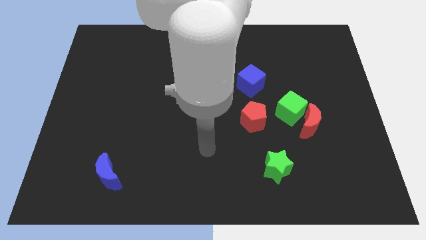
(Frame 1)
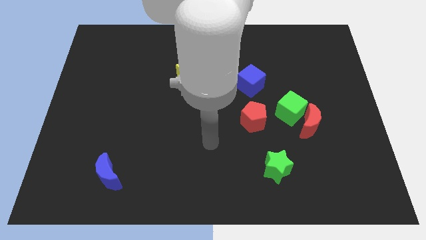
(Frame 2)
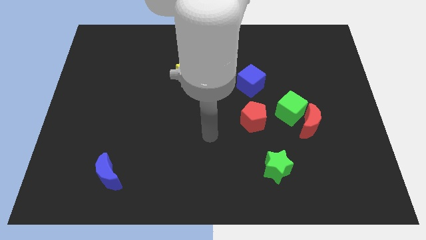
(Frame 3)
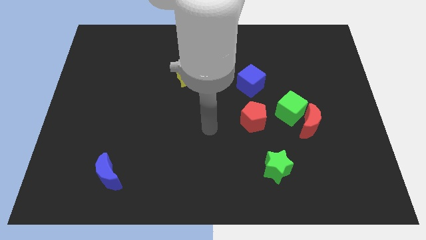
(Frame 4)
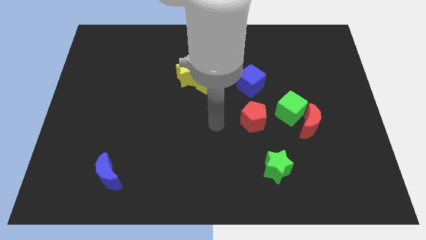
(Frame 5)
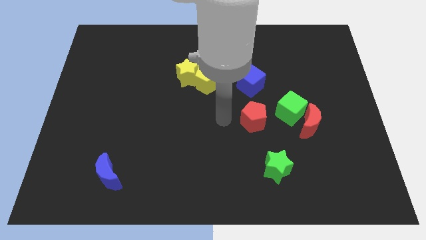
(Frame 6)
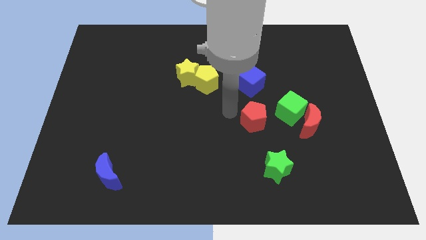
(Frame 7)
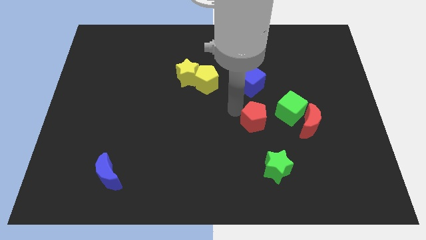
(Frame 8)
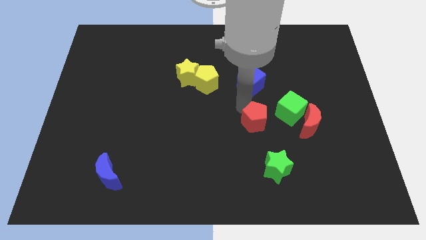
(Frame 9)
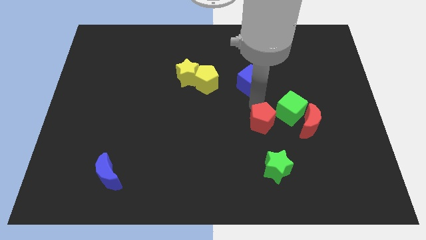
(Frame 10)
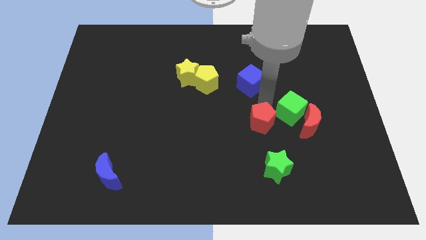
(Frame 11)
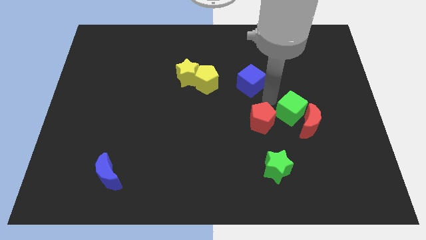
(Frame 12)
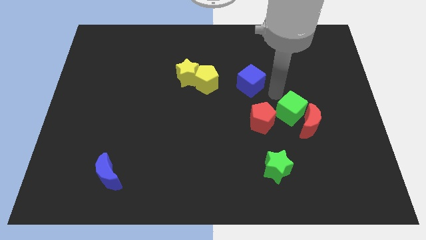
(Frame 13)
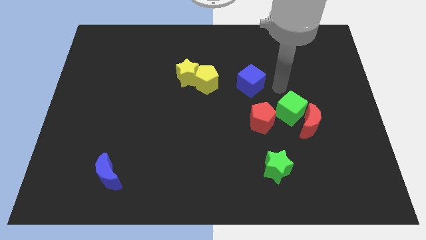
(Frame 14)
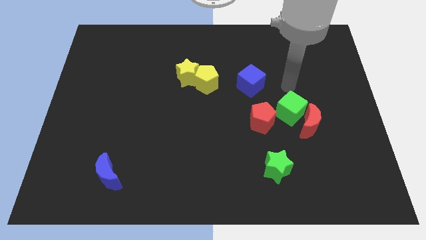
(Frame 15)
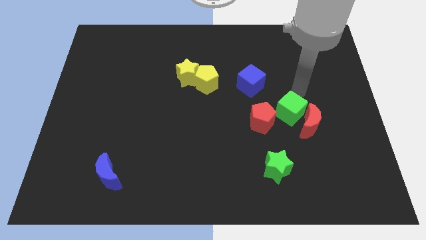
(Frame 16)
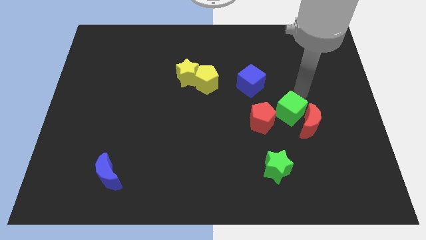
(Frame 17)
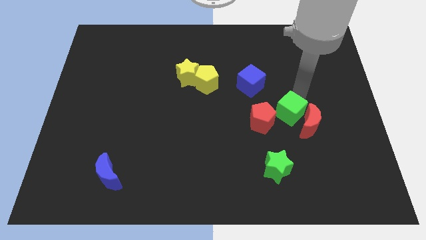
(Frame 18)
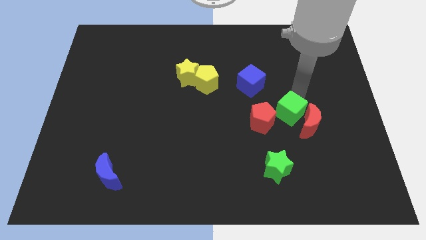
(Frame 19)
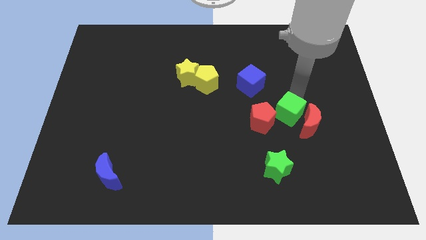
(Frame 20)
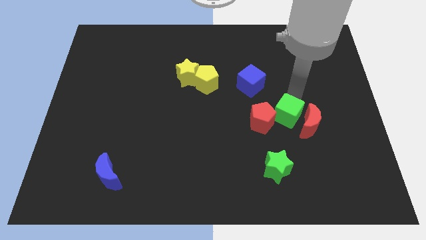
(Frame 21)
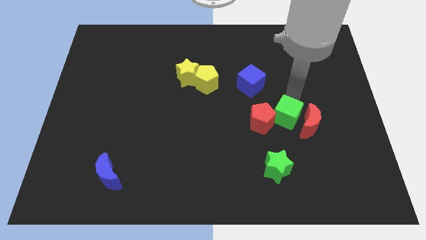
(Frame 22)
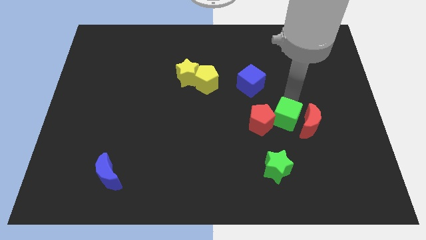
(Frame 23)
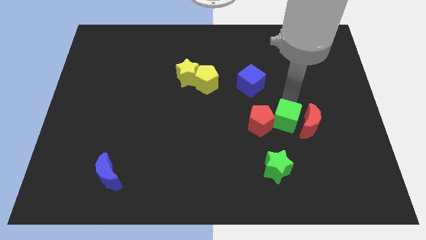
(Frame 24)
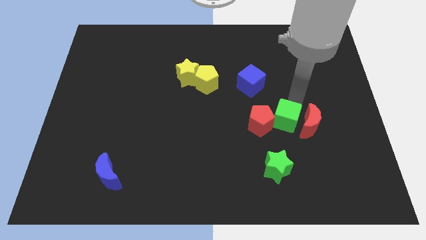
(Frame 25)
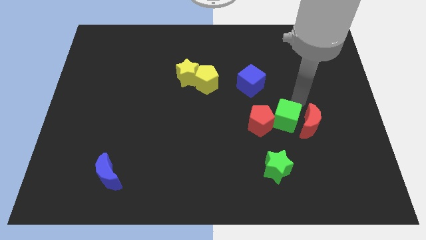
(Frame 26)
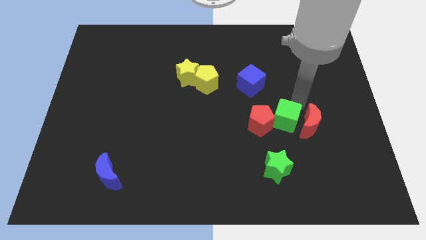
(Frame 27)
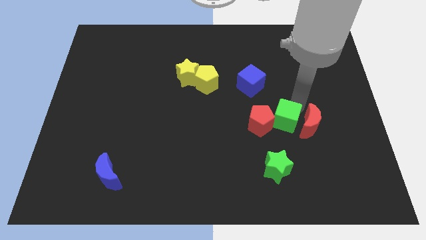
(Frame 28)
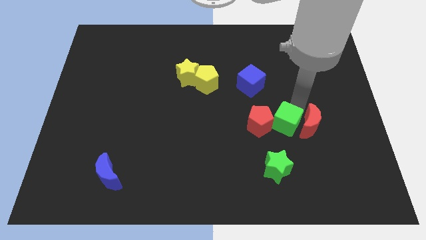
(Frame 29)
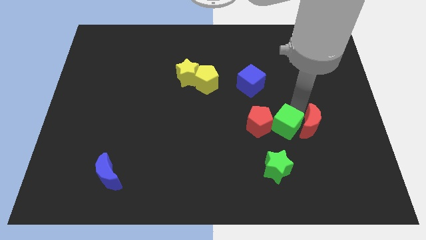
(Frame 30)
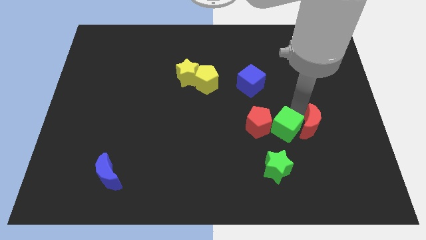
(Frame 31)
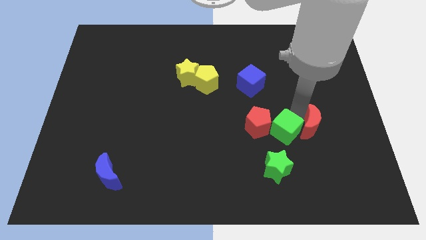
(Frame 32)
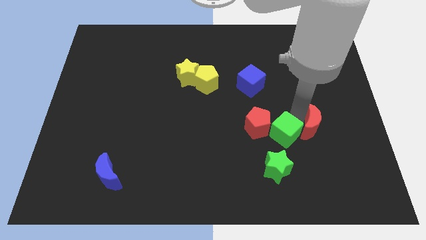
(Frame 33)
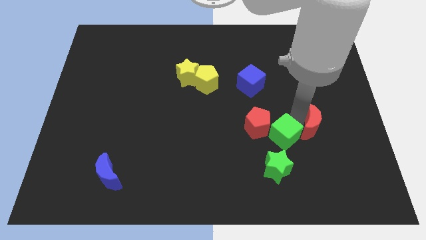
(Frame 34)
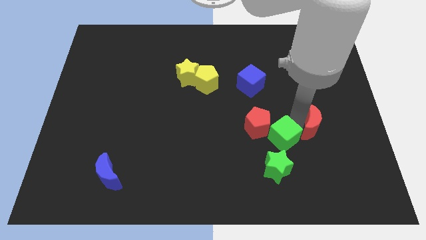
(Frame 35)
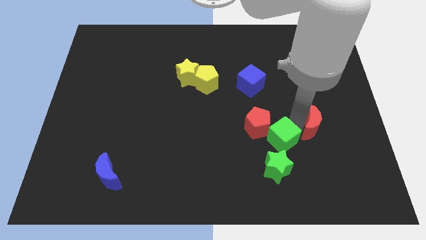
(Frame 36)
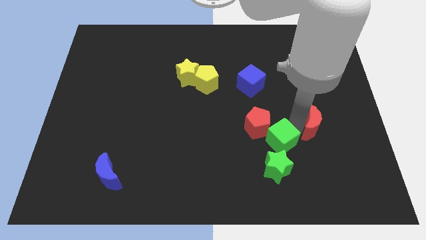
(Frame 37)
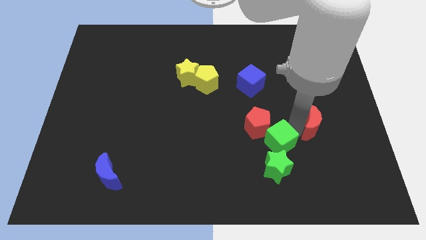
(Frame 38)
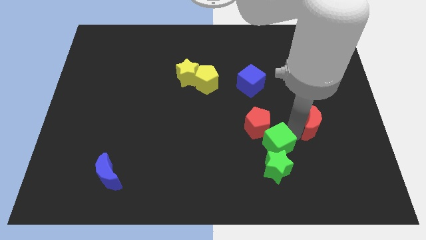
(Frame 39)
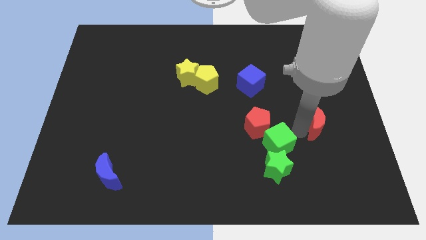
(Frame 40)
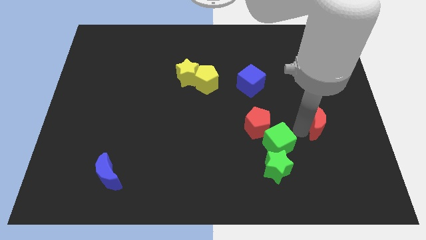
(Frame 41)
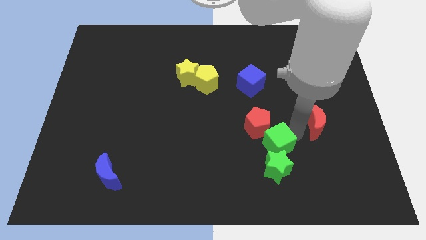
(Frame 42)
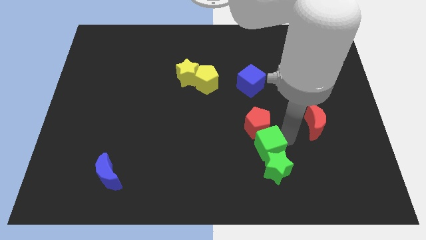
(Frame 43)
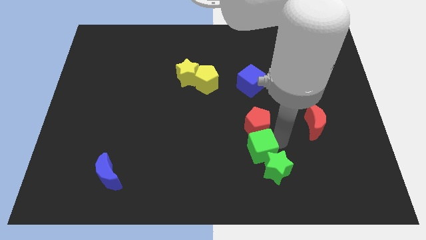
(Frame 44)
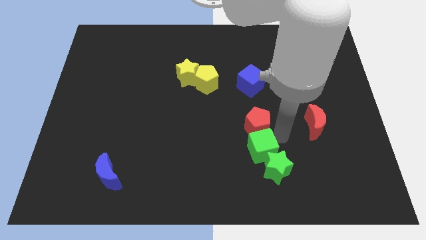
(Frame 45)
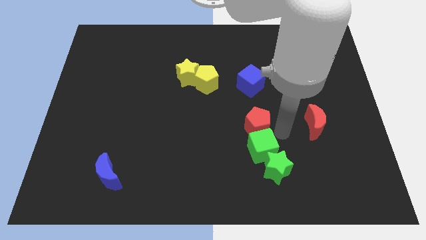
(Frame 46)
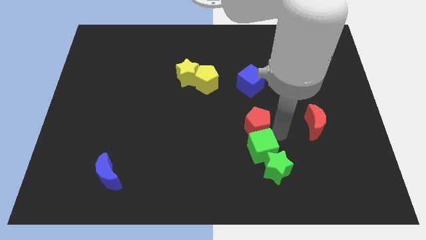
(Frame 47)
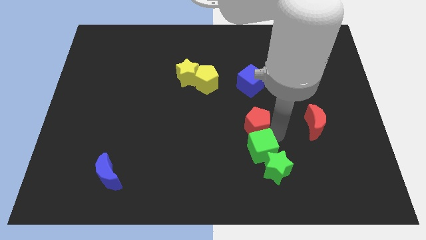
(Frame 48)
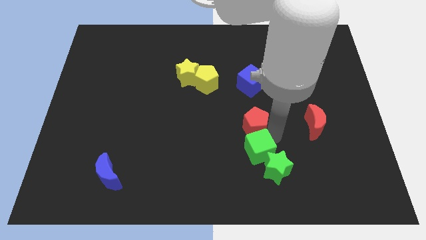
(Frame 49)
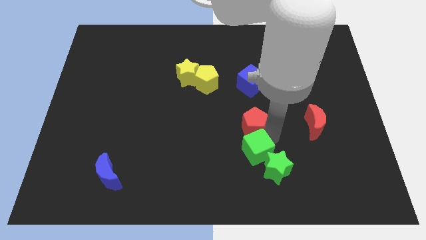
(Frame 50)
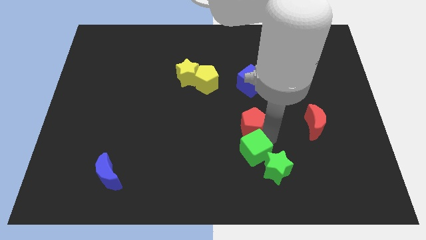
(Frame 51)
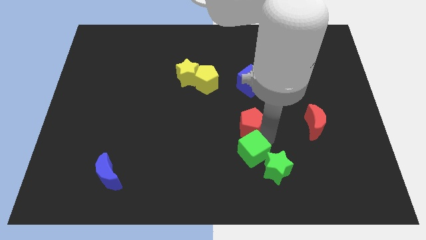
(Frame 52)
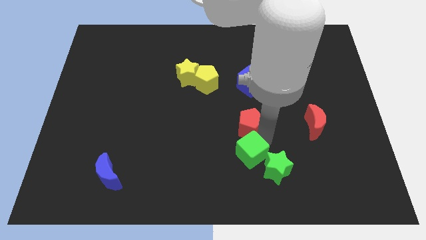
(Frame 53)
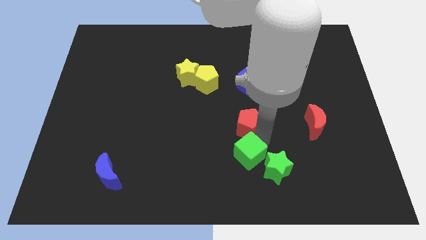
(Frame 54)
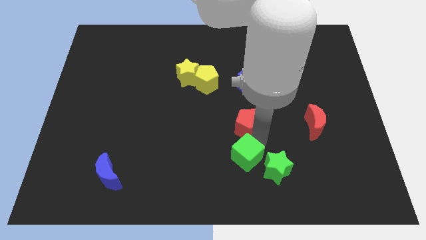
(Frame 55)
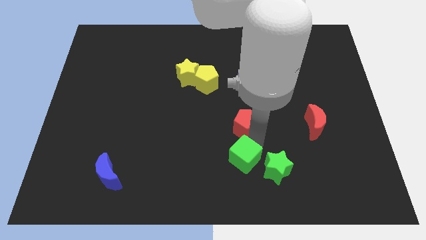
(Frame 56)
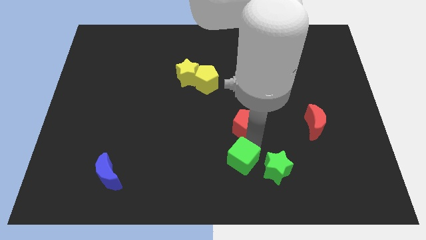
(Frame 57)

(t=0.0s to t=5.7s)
slide the green cube to the bottom side

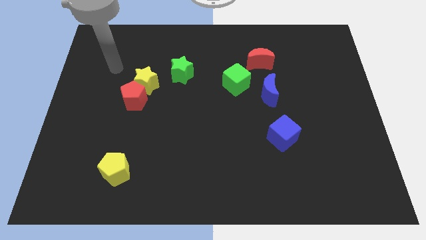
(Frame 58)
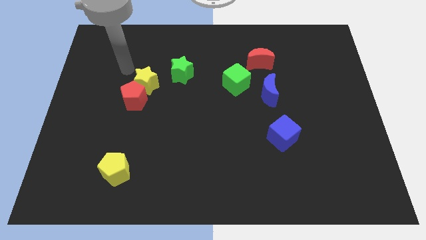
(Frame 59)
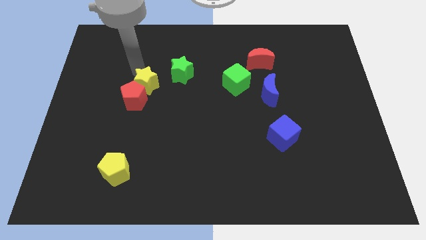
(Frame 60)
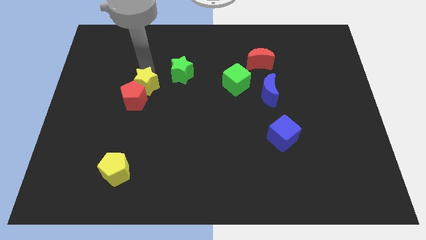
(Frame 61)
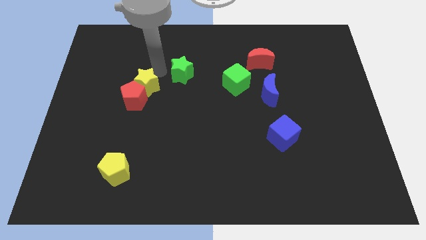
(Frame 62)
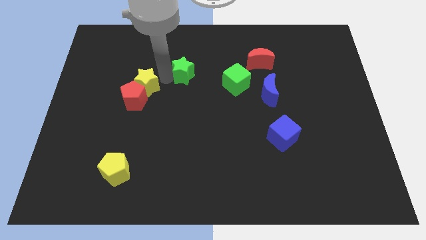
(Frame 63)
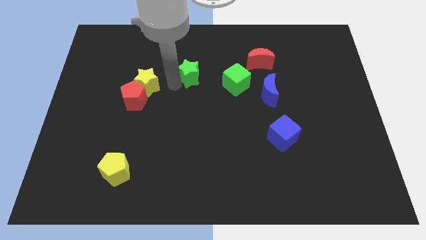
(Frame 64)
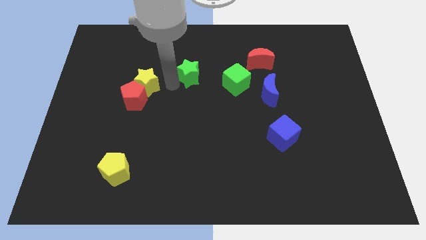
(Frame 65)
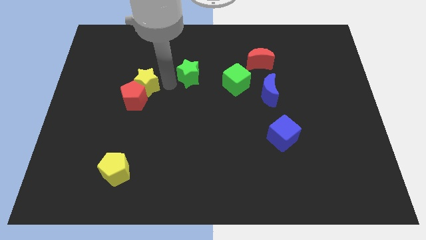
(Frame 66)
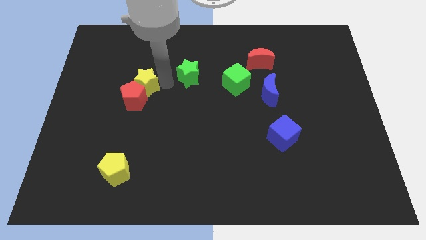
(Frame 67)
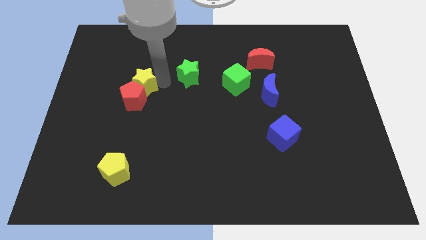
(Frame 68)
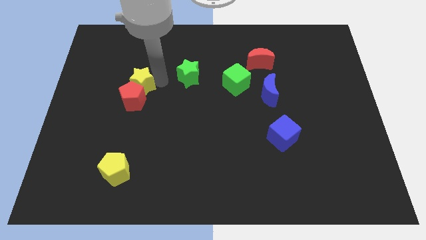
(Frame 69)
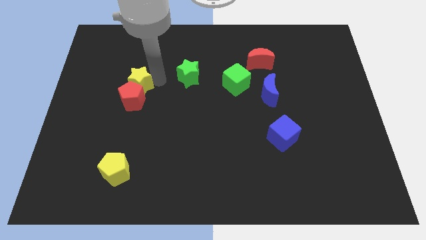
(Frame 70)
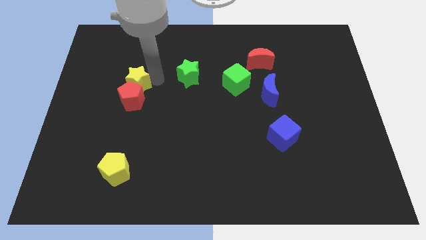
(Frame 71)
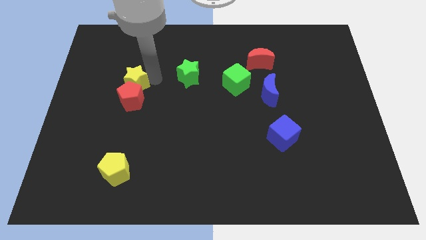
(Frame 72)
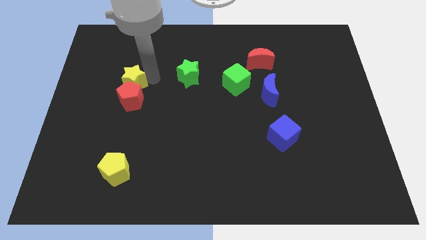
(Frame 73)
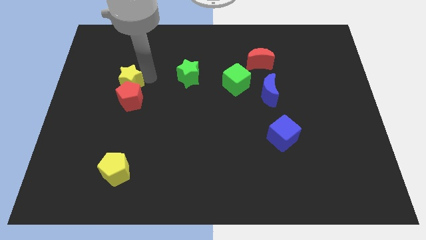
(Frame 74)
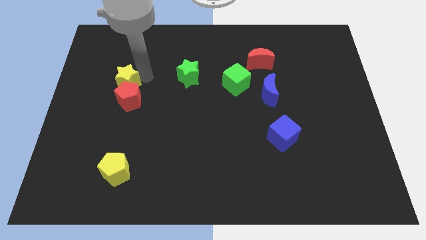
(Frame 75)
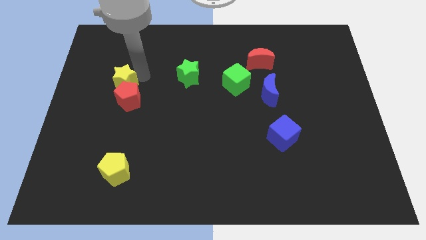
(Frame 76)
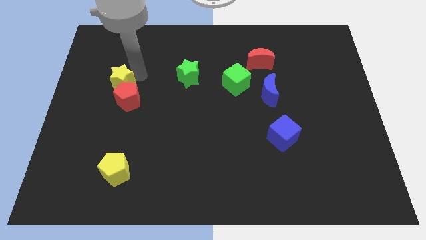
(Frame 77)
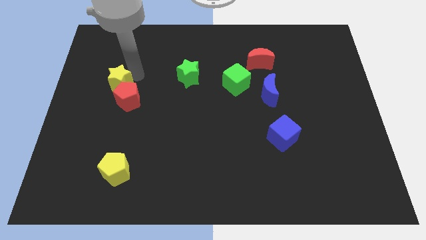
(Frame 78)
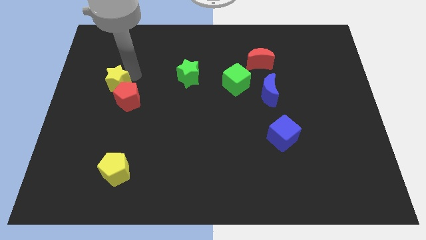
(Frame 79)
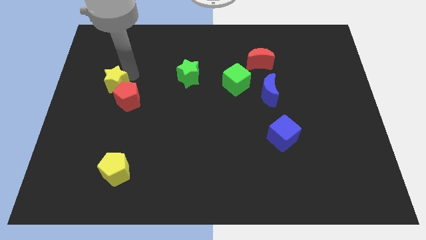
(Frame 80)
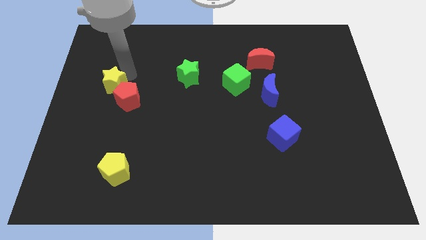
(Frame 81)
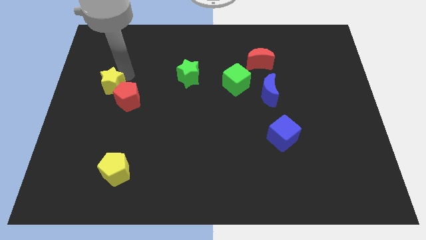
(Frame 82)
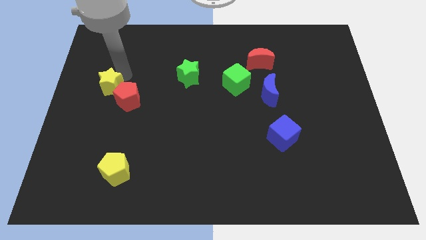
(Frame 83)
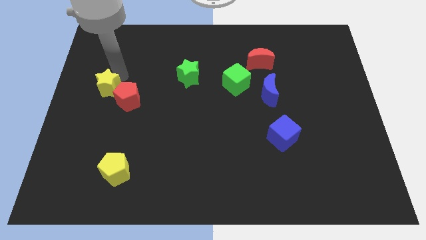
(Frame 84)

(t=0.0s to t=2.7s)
move the yellow star to the left side of the board

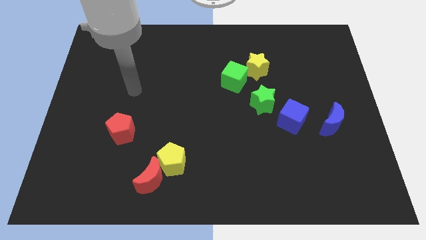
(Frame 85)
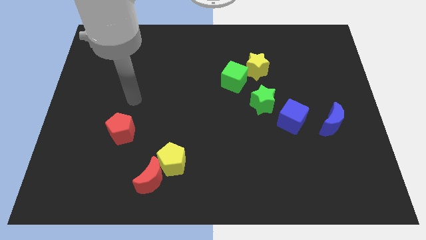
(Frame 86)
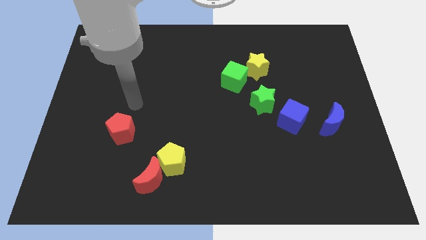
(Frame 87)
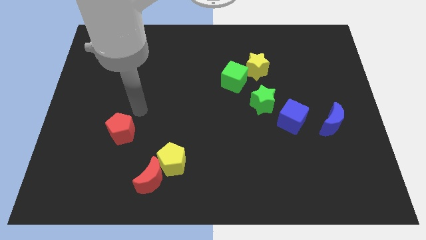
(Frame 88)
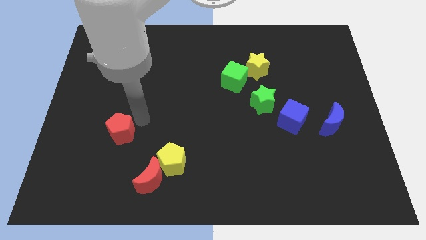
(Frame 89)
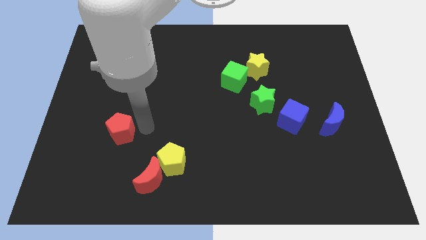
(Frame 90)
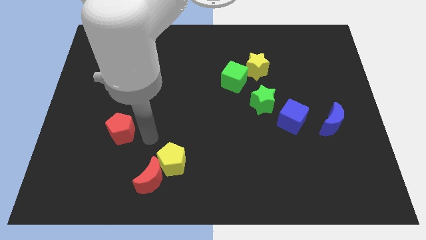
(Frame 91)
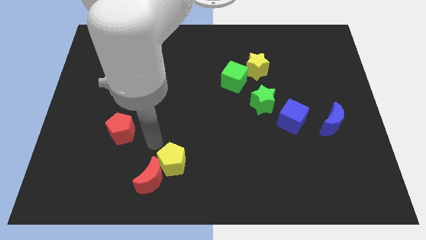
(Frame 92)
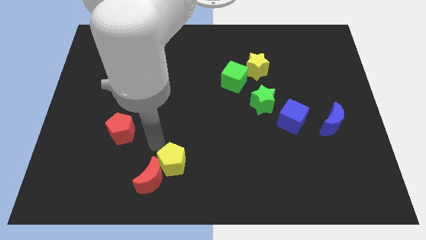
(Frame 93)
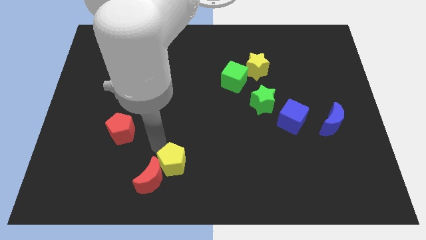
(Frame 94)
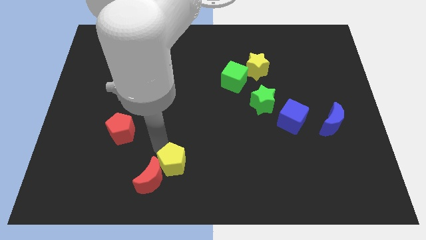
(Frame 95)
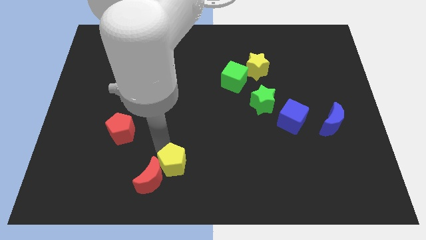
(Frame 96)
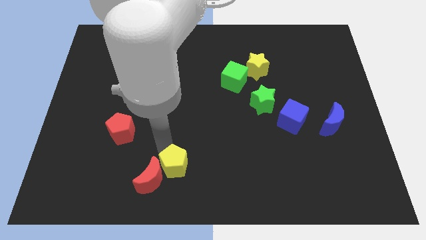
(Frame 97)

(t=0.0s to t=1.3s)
push the yellow pentagon to the bottom
